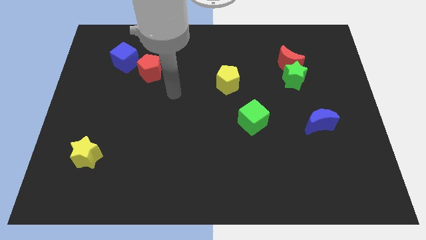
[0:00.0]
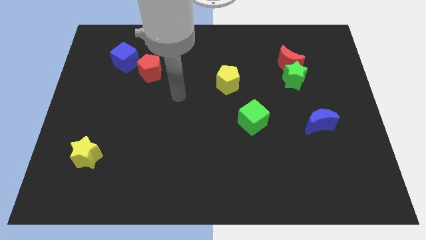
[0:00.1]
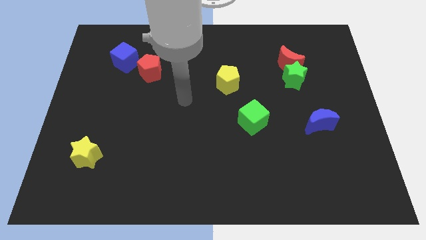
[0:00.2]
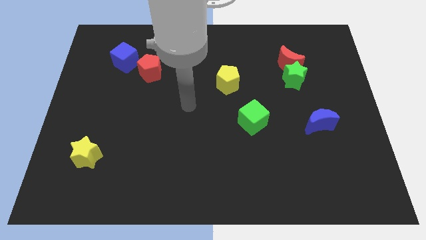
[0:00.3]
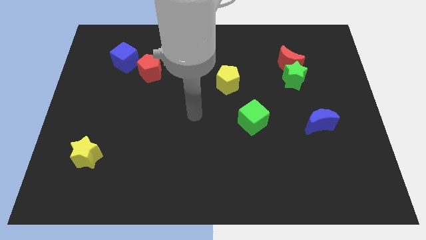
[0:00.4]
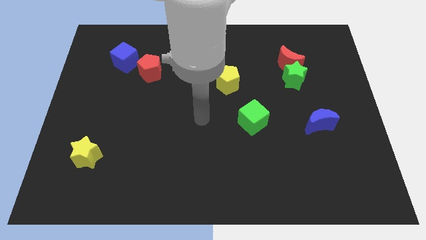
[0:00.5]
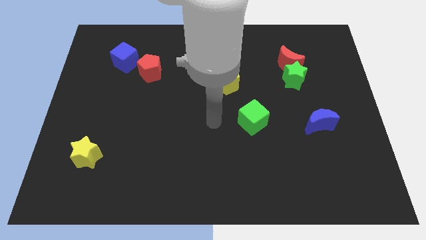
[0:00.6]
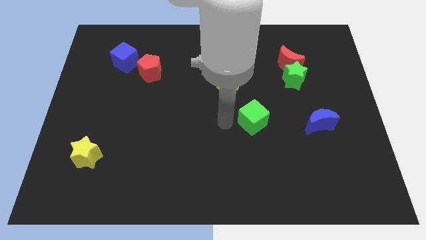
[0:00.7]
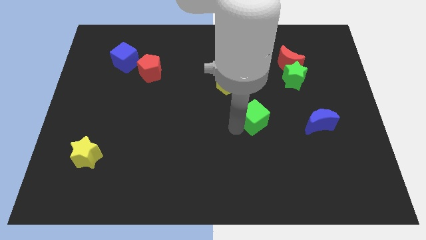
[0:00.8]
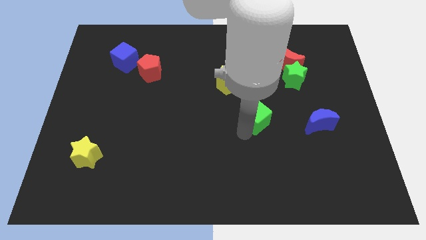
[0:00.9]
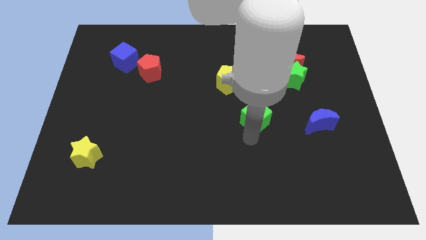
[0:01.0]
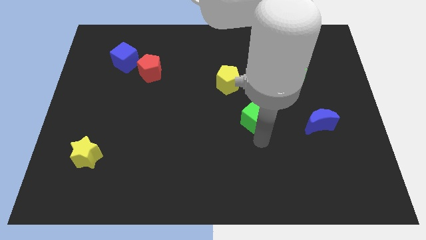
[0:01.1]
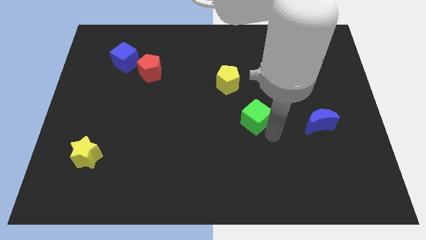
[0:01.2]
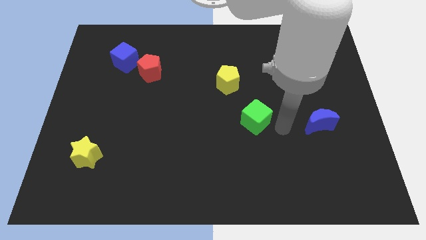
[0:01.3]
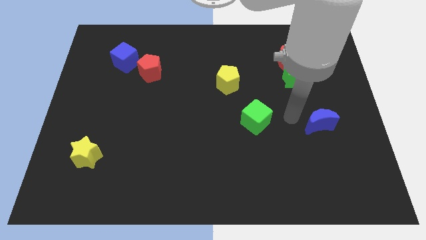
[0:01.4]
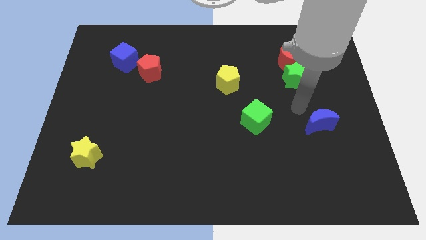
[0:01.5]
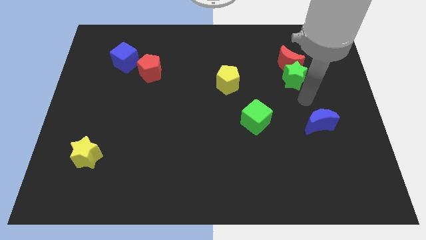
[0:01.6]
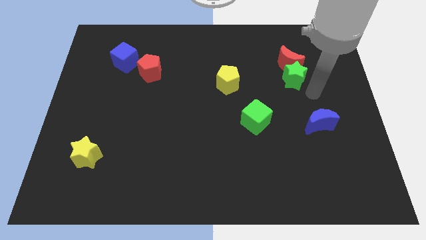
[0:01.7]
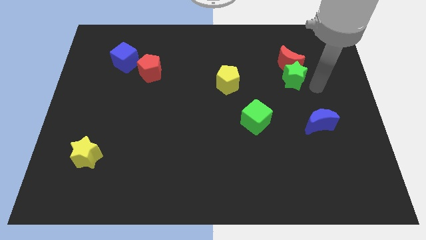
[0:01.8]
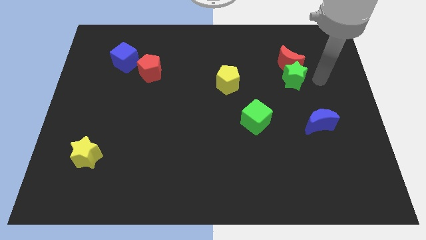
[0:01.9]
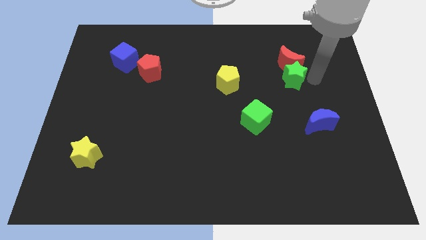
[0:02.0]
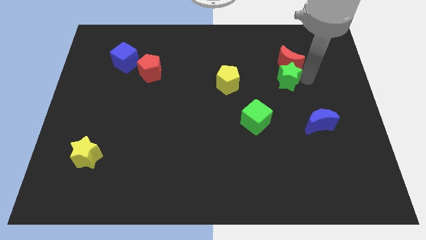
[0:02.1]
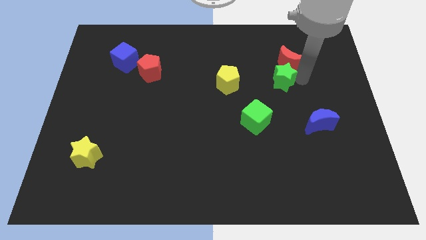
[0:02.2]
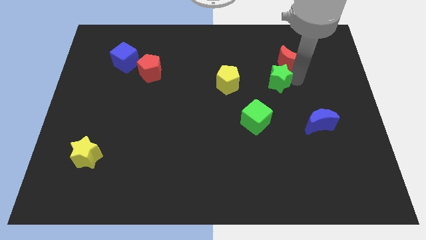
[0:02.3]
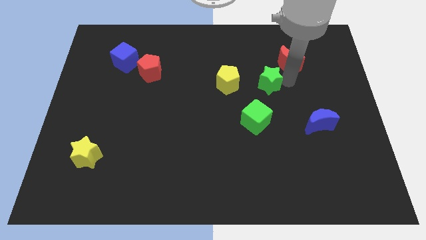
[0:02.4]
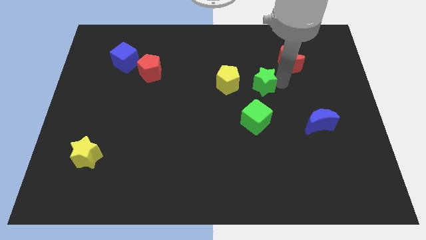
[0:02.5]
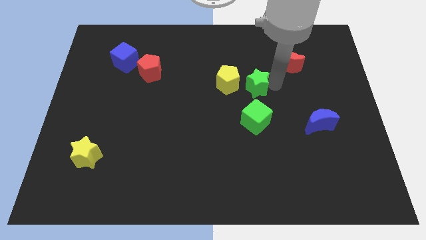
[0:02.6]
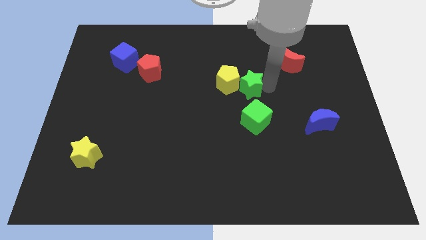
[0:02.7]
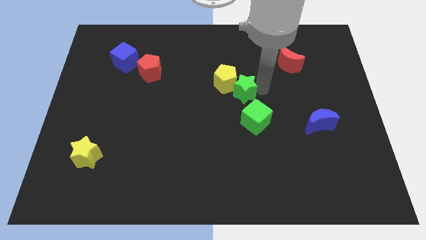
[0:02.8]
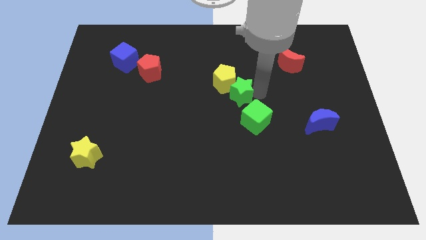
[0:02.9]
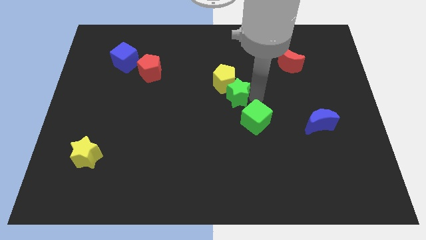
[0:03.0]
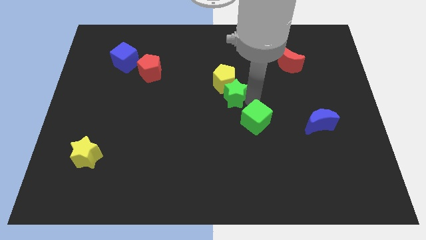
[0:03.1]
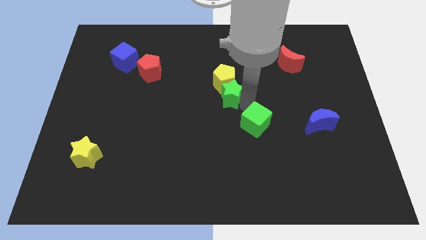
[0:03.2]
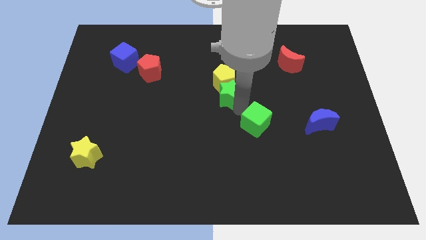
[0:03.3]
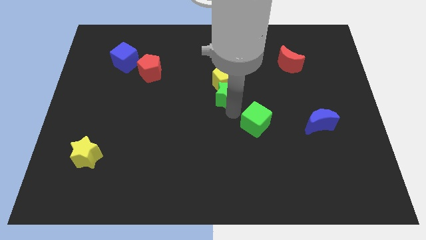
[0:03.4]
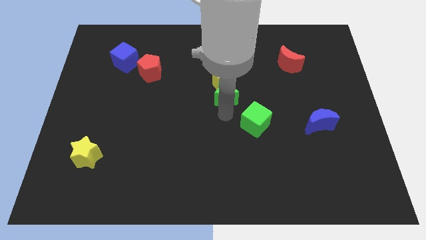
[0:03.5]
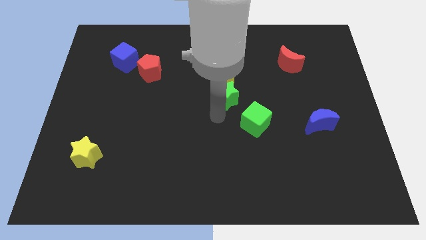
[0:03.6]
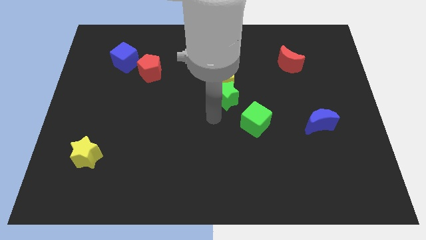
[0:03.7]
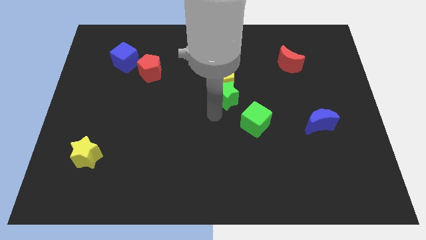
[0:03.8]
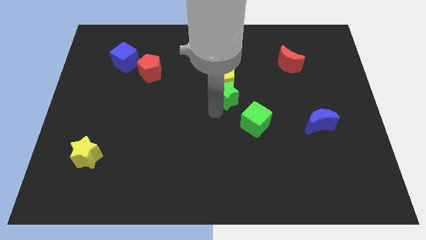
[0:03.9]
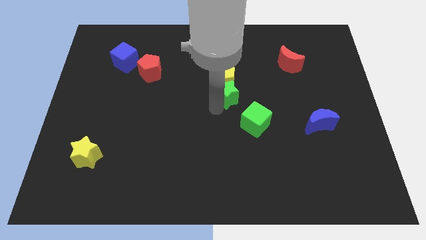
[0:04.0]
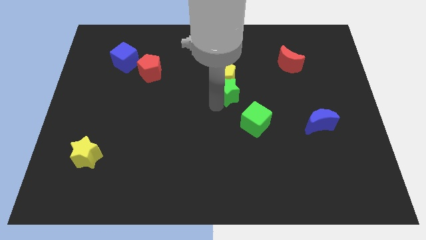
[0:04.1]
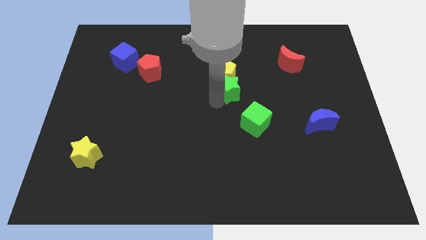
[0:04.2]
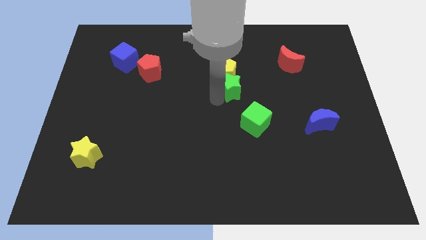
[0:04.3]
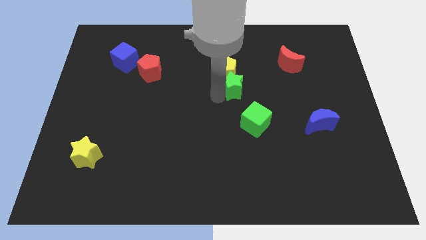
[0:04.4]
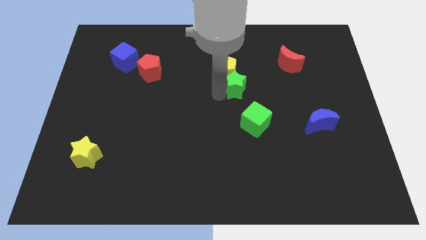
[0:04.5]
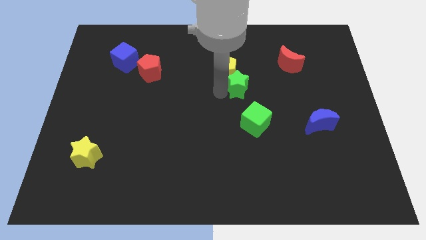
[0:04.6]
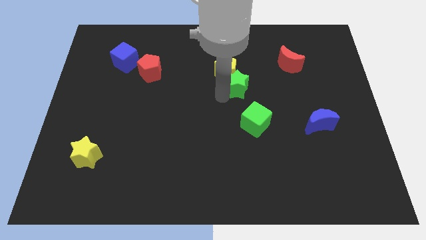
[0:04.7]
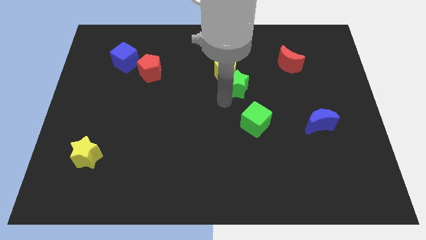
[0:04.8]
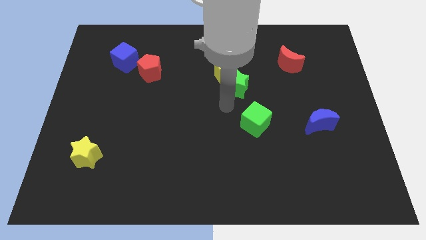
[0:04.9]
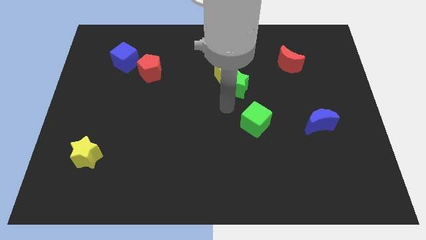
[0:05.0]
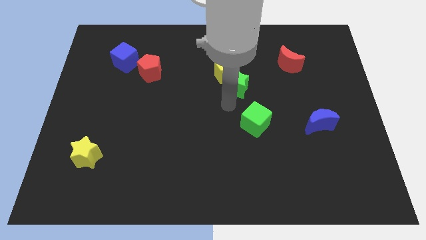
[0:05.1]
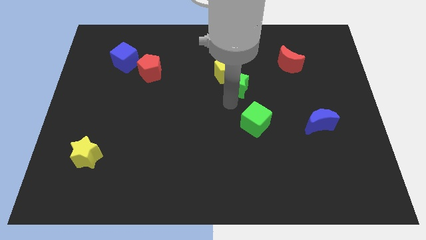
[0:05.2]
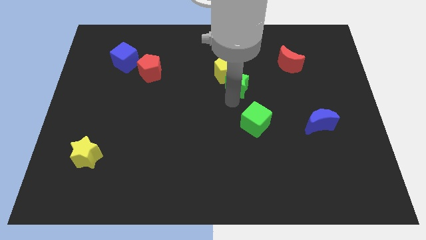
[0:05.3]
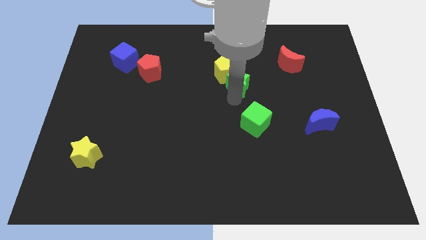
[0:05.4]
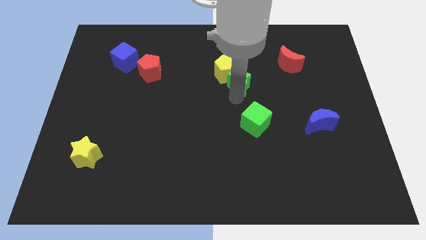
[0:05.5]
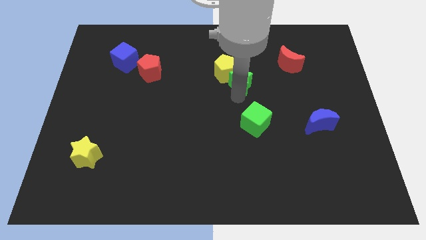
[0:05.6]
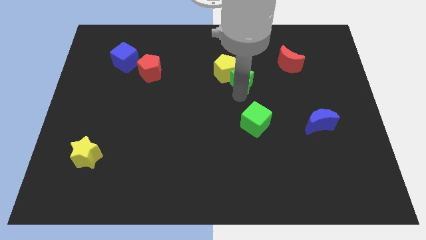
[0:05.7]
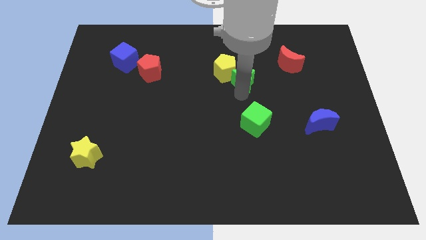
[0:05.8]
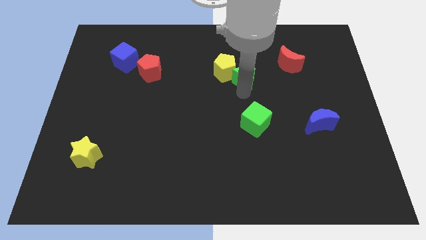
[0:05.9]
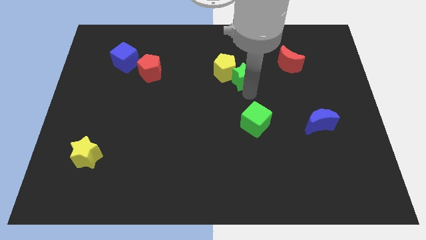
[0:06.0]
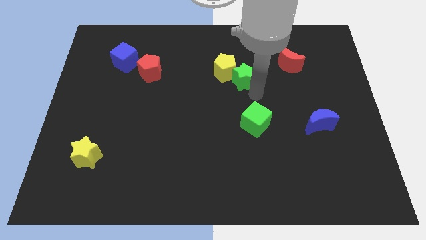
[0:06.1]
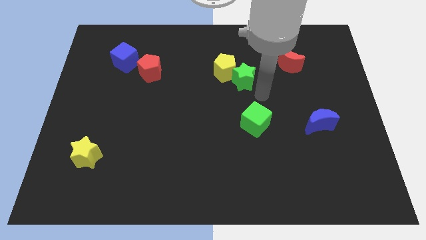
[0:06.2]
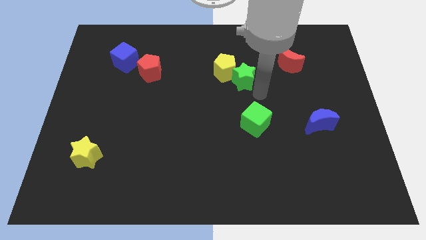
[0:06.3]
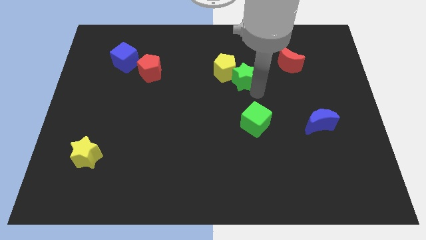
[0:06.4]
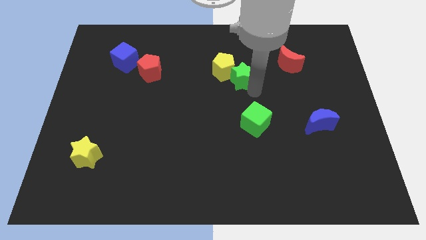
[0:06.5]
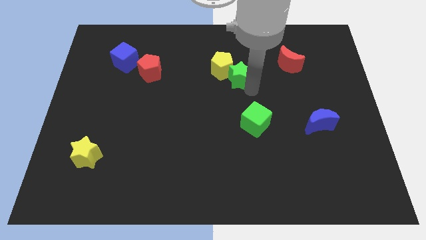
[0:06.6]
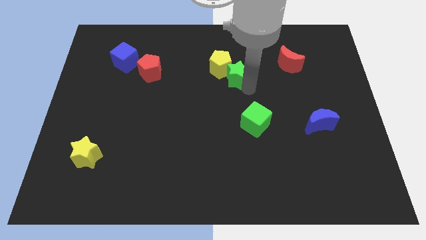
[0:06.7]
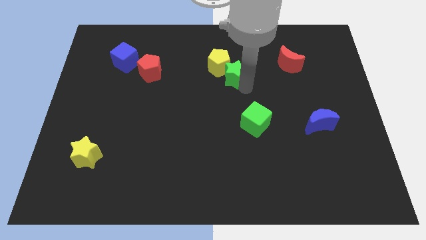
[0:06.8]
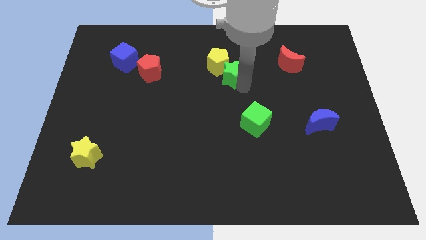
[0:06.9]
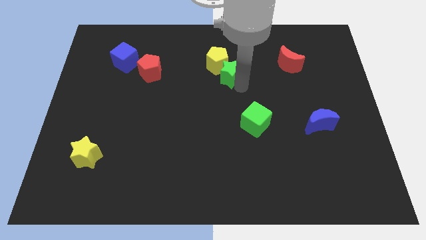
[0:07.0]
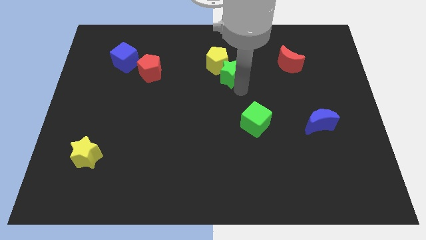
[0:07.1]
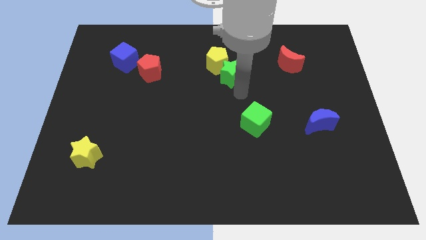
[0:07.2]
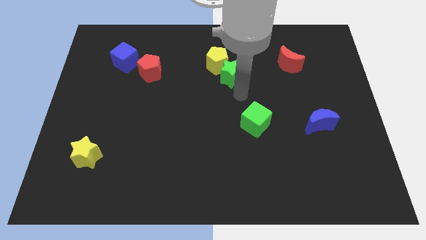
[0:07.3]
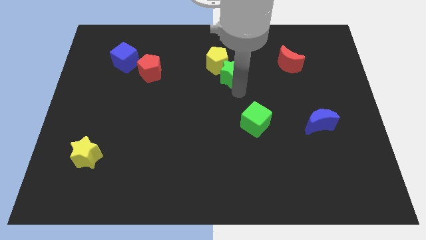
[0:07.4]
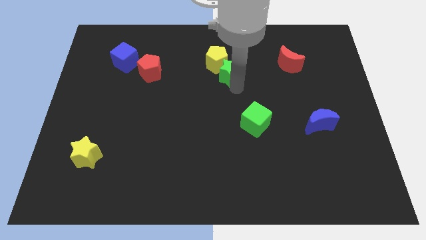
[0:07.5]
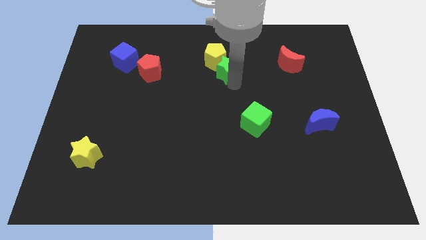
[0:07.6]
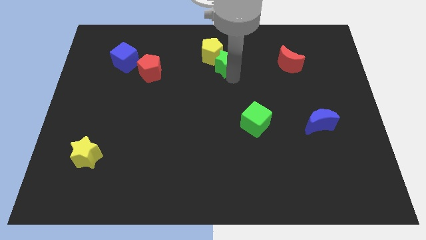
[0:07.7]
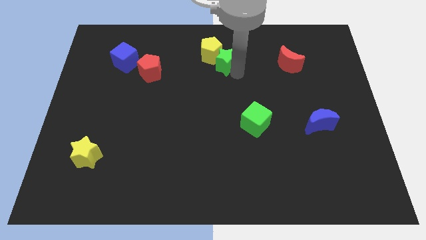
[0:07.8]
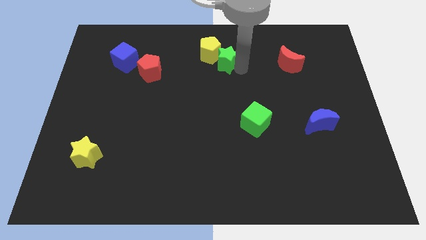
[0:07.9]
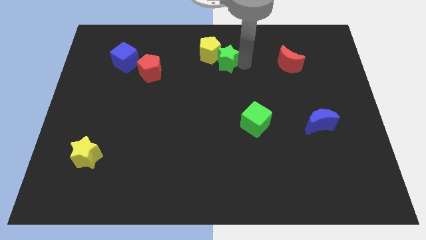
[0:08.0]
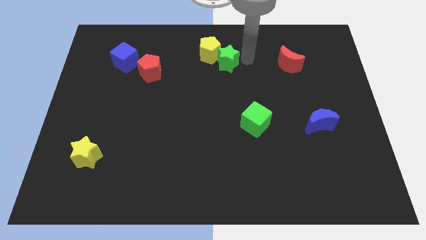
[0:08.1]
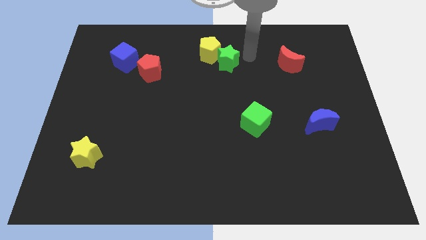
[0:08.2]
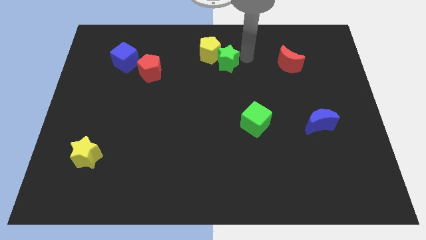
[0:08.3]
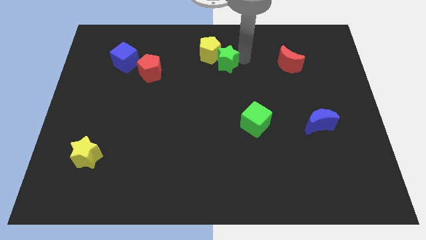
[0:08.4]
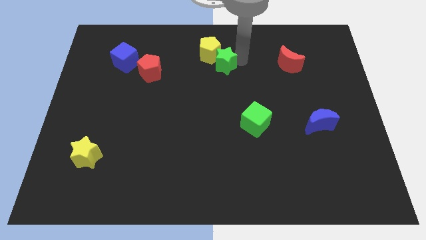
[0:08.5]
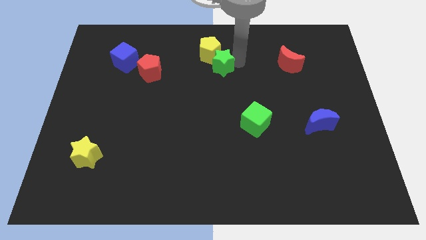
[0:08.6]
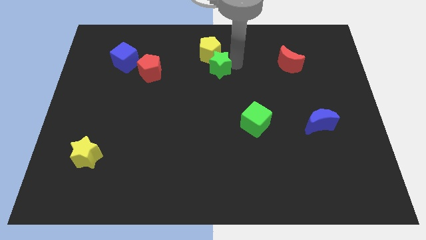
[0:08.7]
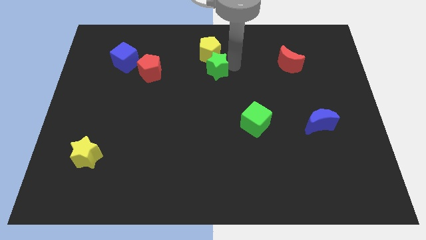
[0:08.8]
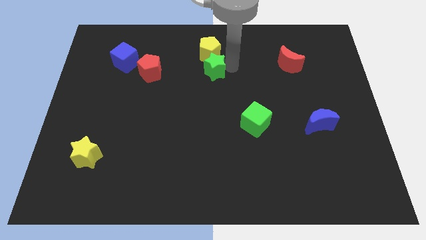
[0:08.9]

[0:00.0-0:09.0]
put the green star just right of the red pentagon
